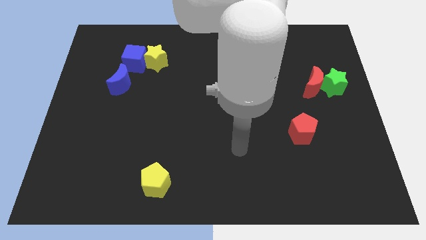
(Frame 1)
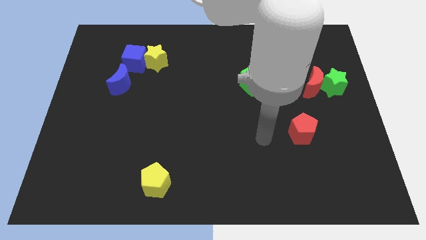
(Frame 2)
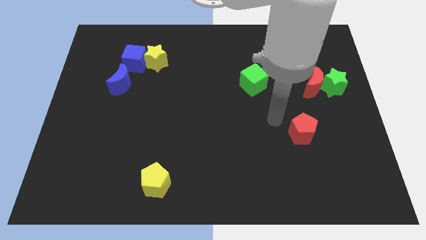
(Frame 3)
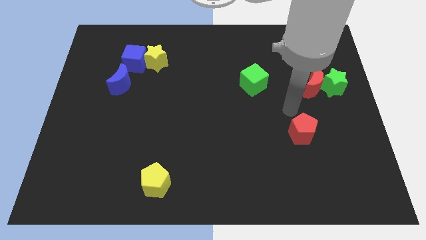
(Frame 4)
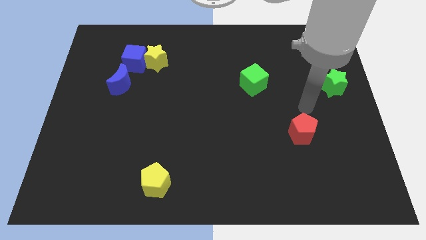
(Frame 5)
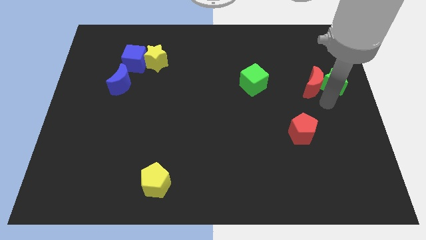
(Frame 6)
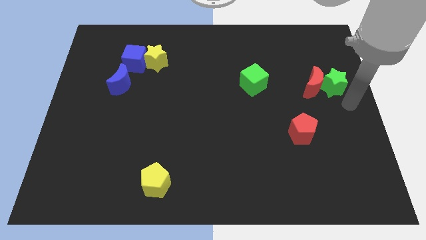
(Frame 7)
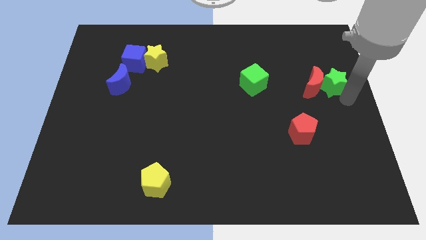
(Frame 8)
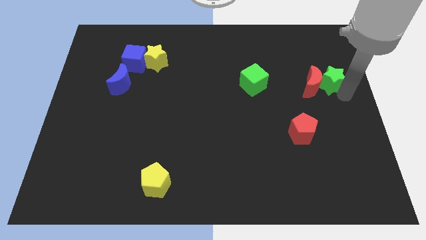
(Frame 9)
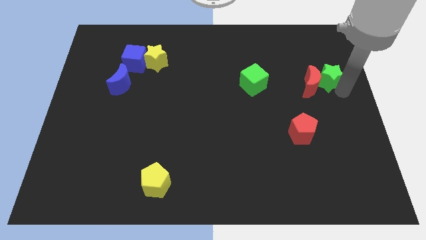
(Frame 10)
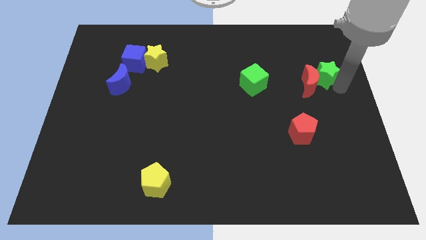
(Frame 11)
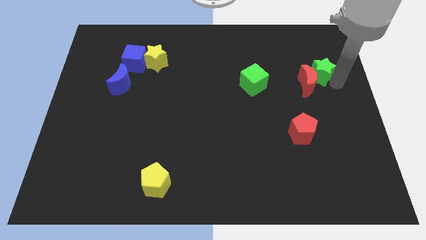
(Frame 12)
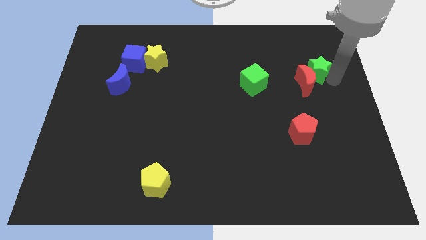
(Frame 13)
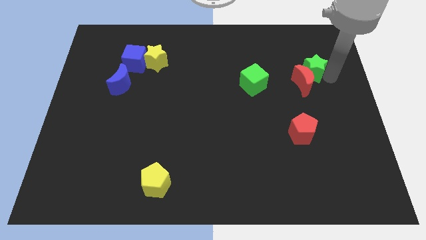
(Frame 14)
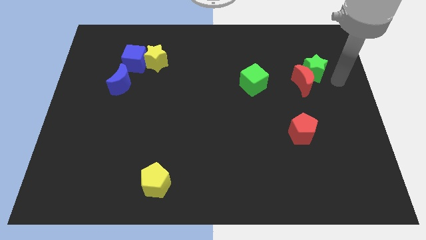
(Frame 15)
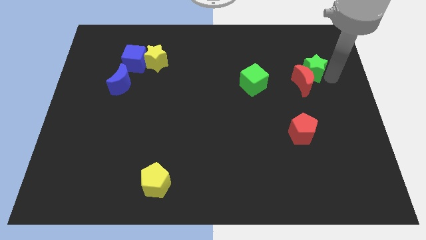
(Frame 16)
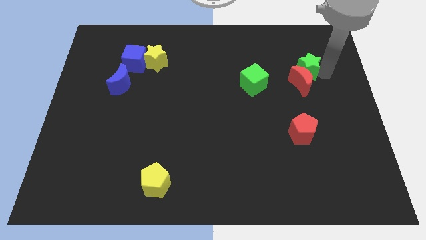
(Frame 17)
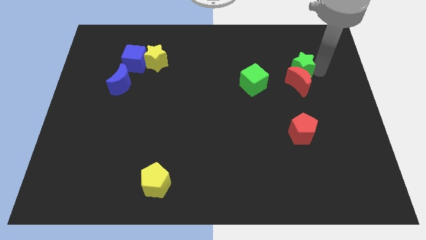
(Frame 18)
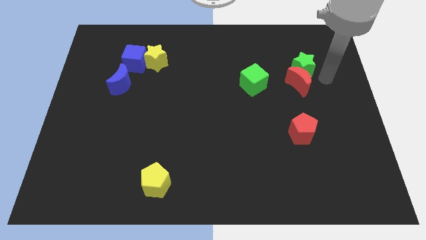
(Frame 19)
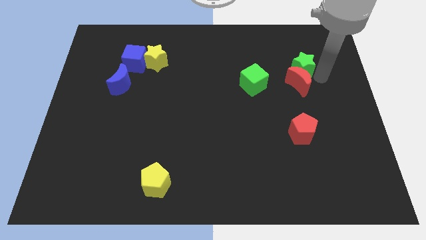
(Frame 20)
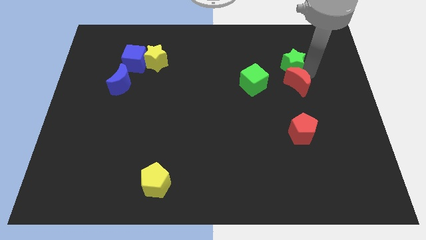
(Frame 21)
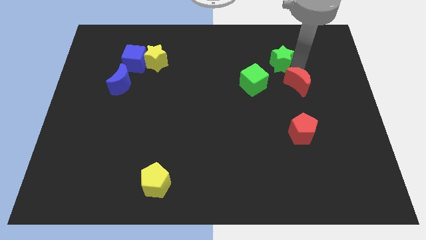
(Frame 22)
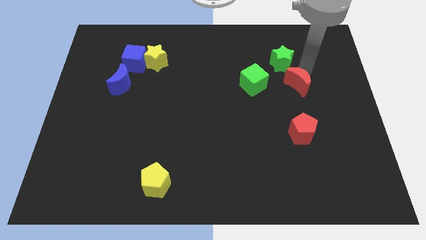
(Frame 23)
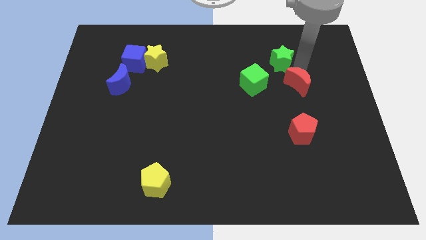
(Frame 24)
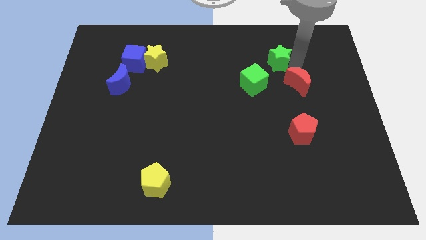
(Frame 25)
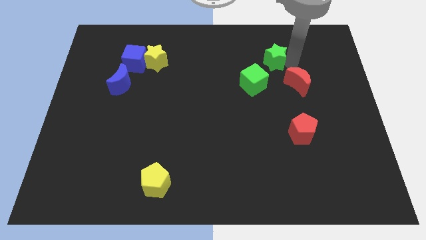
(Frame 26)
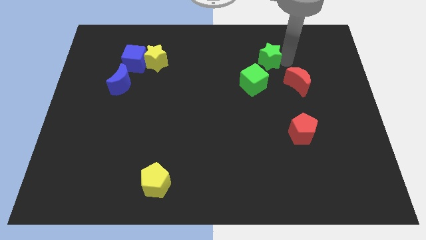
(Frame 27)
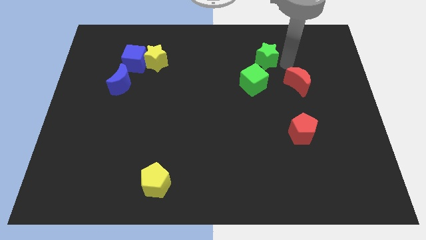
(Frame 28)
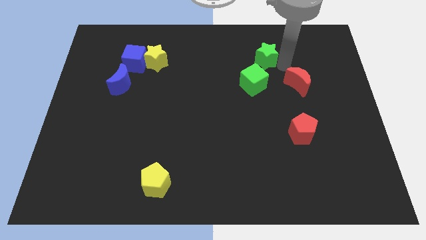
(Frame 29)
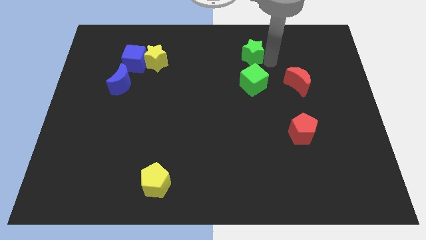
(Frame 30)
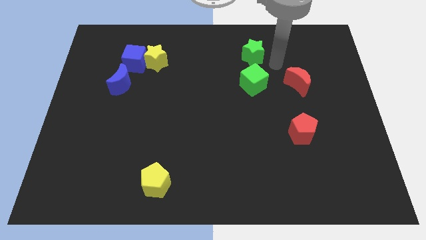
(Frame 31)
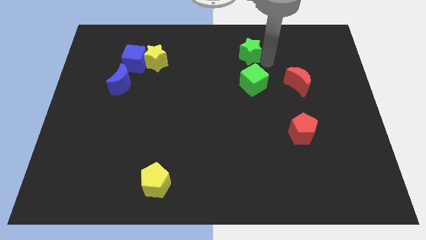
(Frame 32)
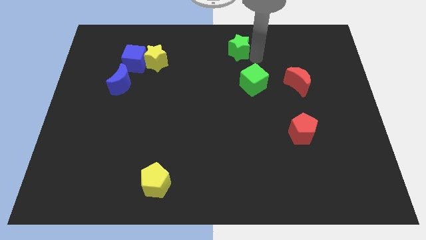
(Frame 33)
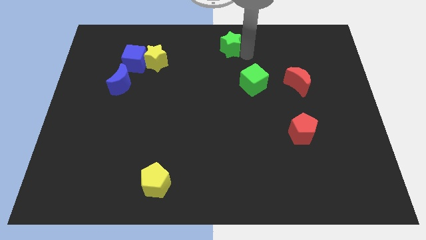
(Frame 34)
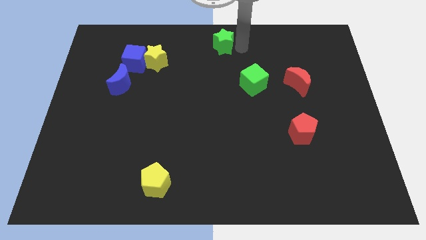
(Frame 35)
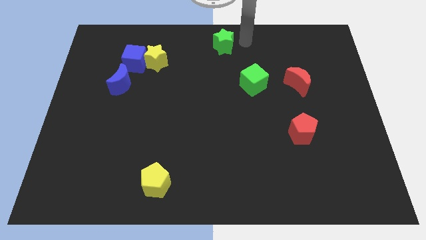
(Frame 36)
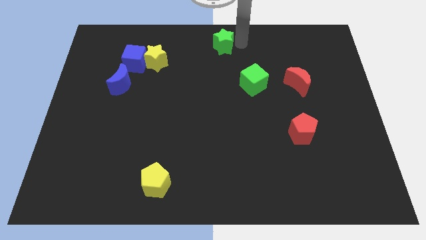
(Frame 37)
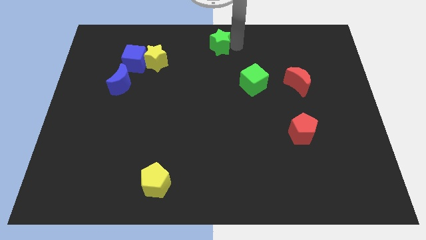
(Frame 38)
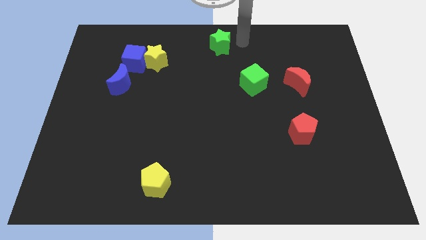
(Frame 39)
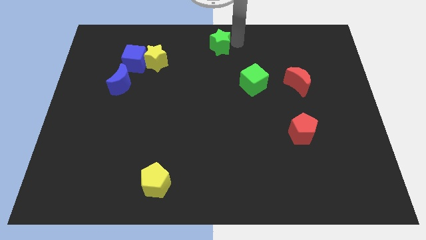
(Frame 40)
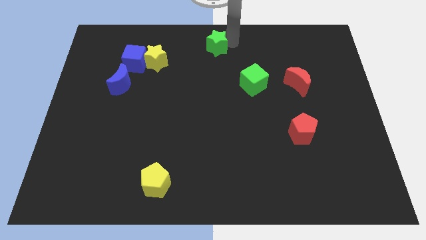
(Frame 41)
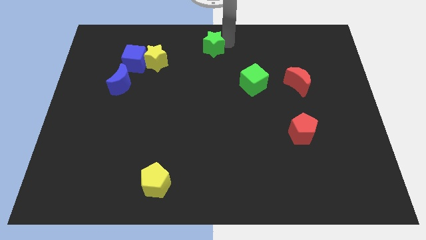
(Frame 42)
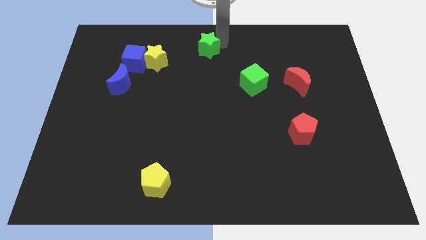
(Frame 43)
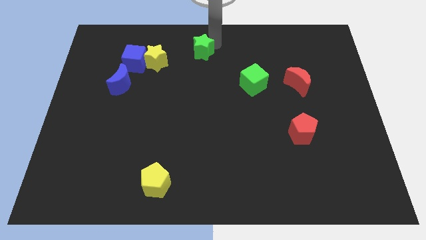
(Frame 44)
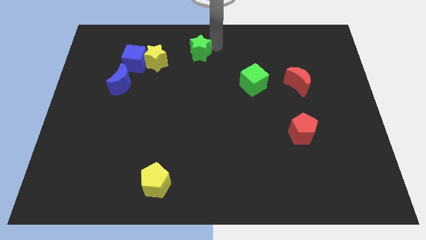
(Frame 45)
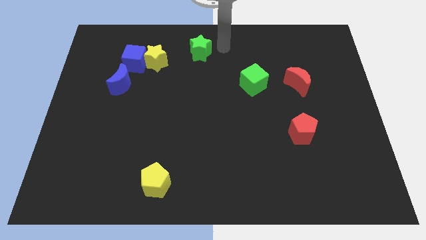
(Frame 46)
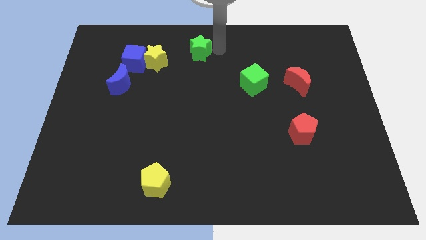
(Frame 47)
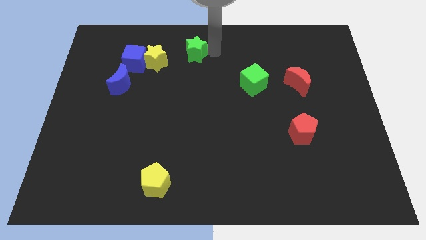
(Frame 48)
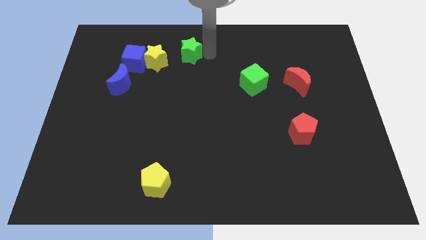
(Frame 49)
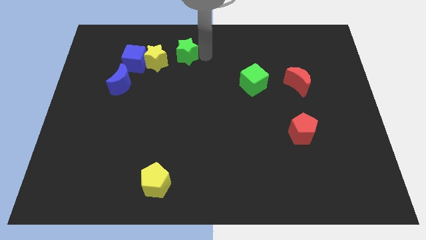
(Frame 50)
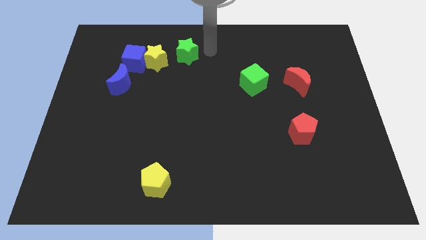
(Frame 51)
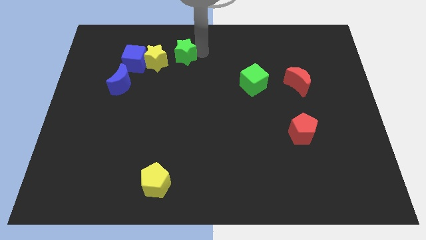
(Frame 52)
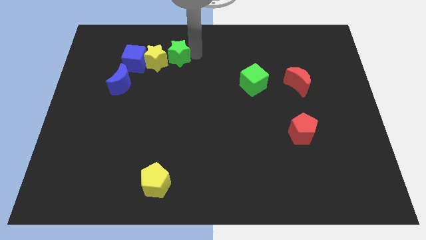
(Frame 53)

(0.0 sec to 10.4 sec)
push the green star to the yellow star

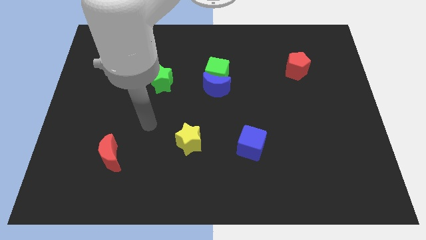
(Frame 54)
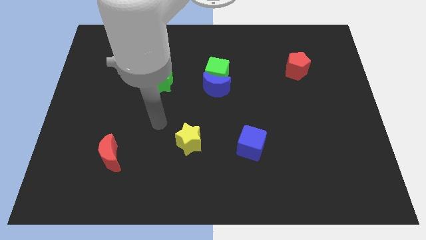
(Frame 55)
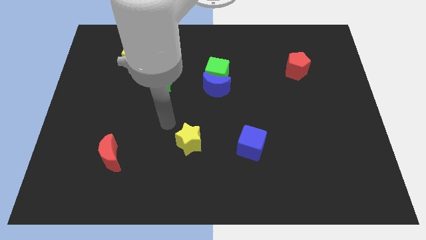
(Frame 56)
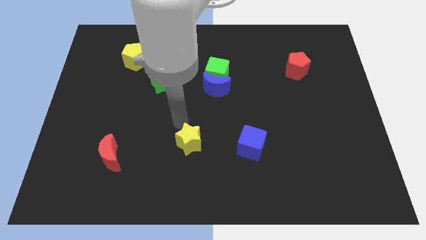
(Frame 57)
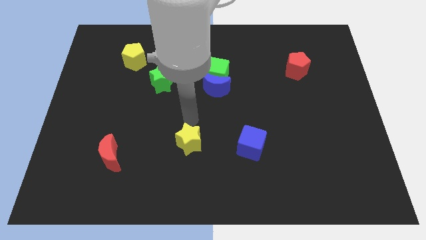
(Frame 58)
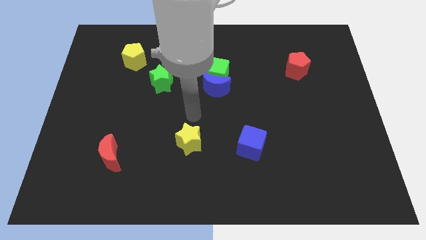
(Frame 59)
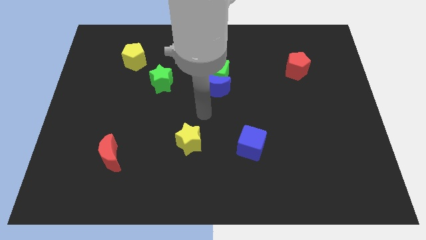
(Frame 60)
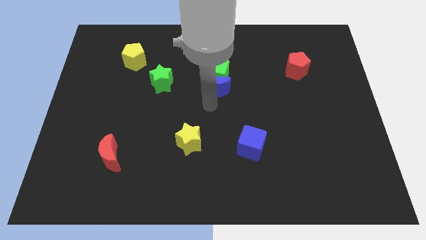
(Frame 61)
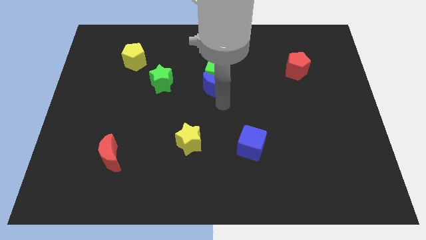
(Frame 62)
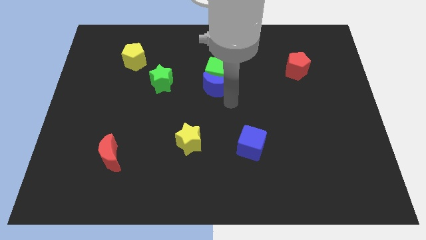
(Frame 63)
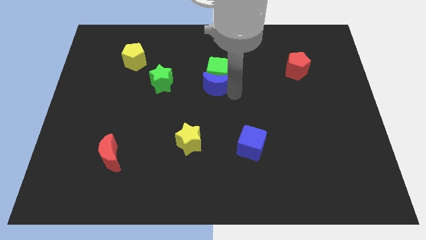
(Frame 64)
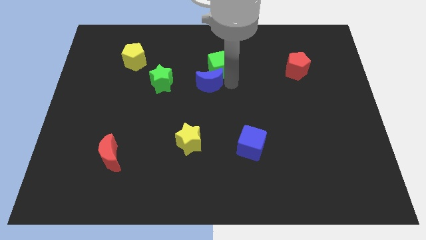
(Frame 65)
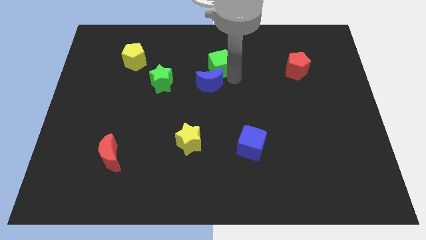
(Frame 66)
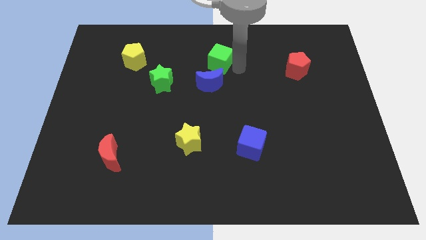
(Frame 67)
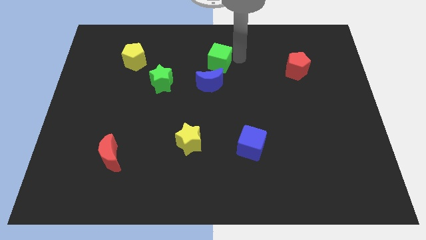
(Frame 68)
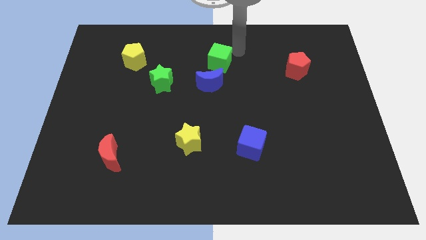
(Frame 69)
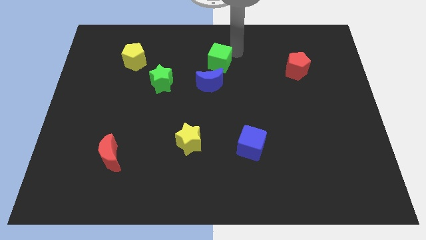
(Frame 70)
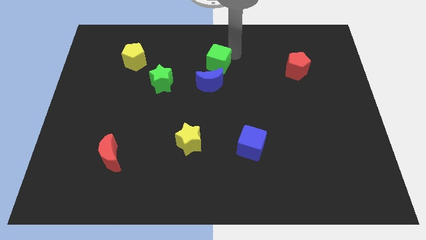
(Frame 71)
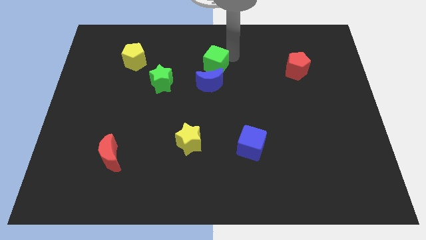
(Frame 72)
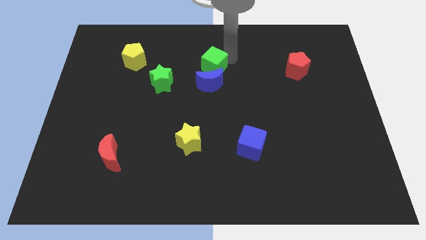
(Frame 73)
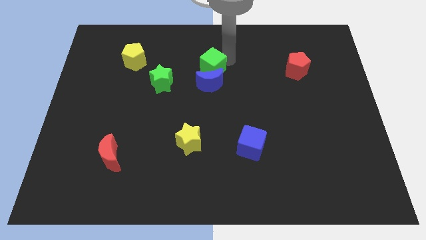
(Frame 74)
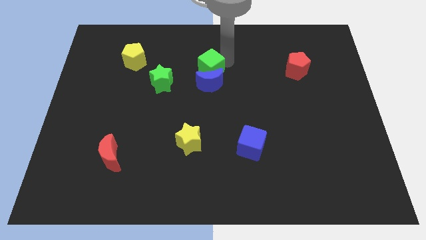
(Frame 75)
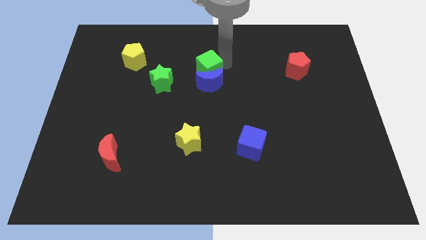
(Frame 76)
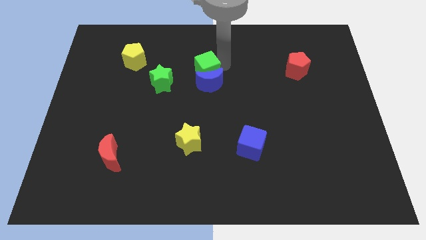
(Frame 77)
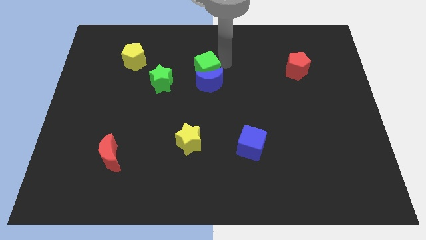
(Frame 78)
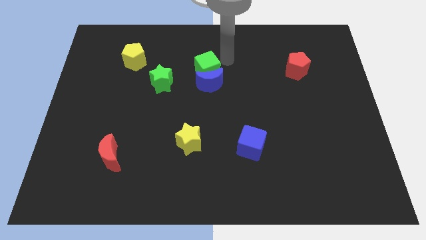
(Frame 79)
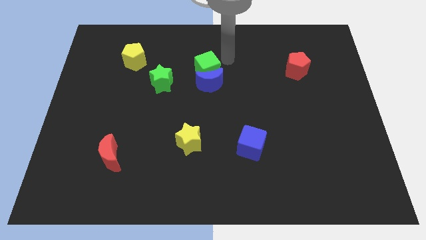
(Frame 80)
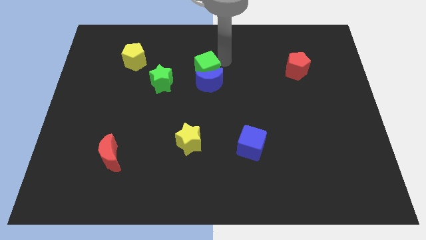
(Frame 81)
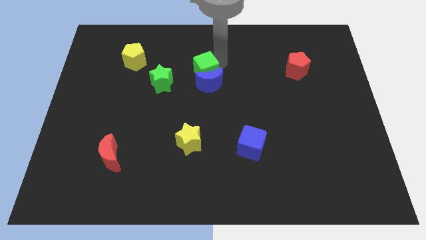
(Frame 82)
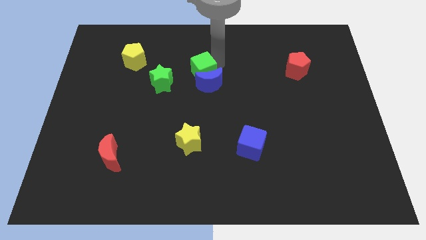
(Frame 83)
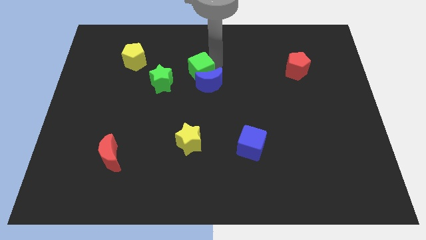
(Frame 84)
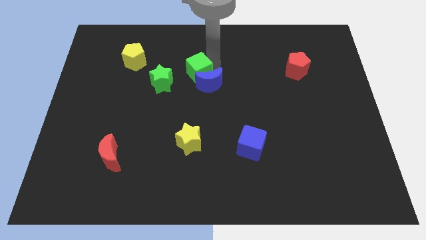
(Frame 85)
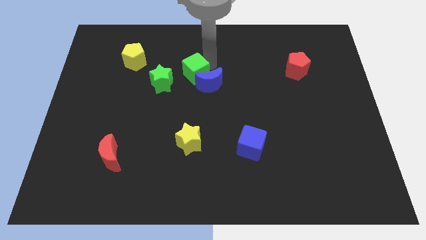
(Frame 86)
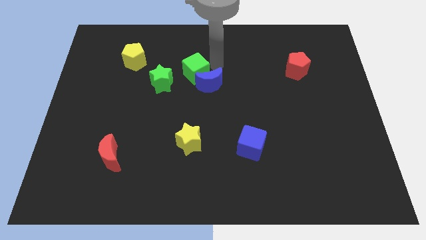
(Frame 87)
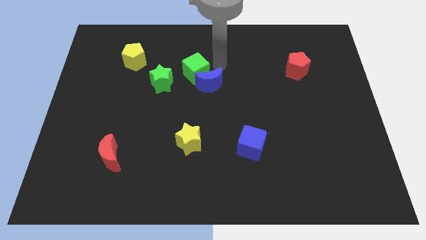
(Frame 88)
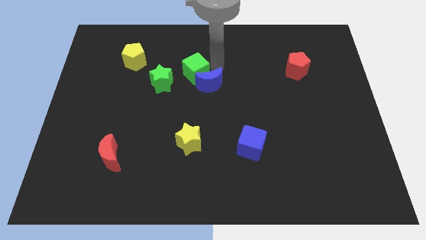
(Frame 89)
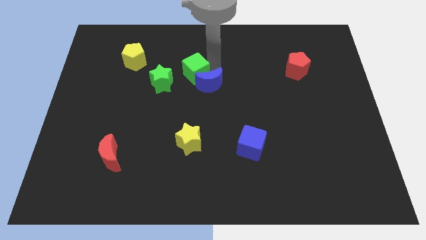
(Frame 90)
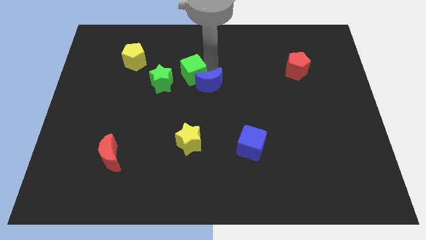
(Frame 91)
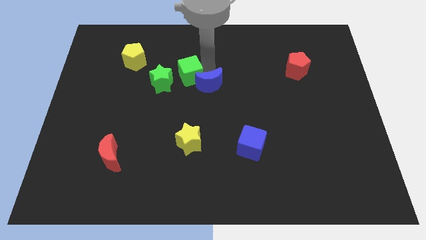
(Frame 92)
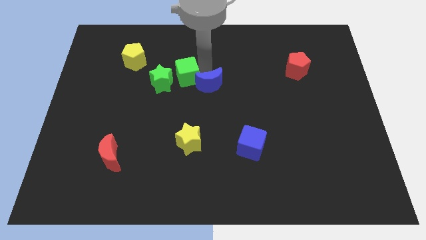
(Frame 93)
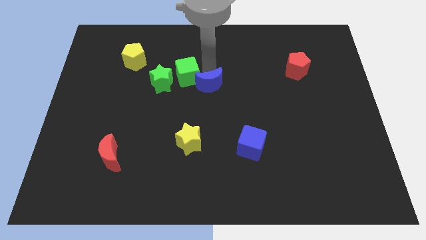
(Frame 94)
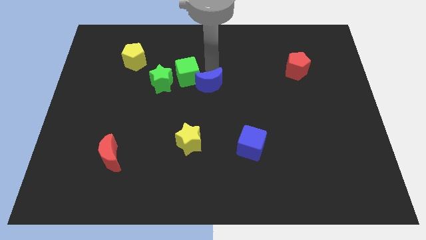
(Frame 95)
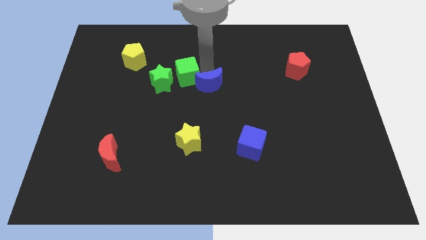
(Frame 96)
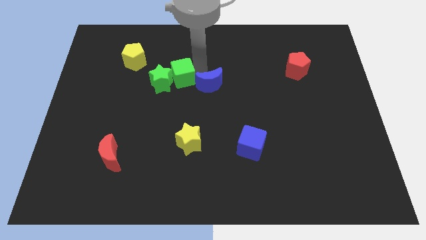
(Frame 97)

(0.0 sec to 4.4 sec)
move the green cube towards the green star
